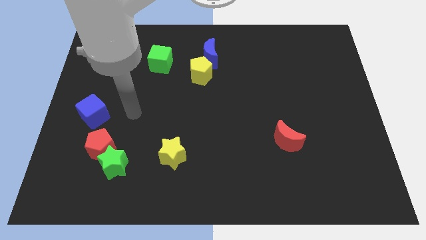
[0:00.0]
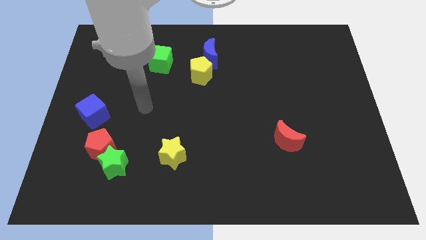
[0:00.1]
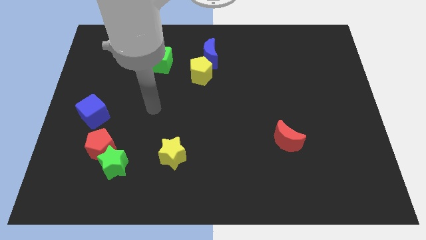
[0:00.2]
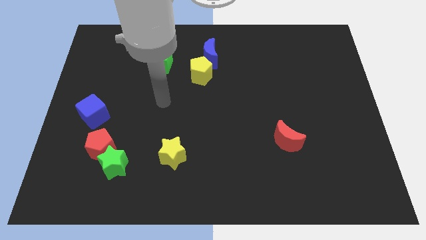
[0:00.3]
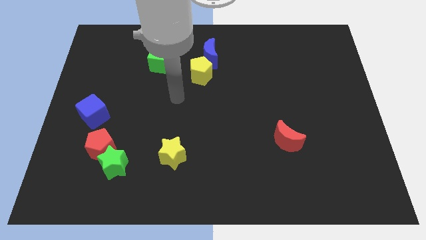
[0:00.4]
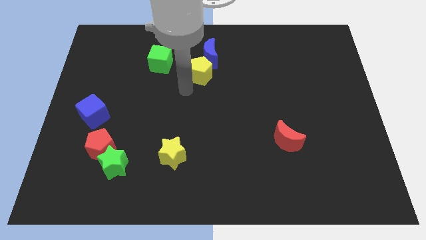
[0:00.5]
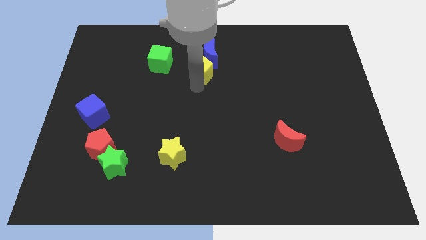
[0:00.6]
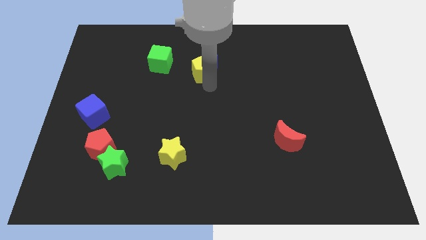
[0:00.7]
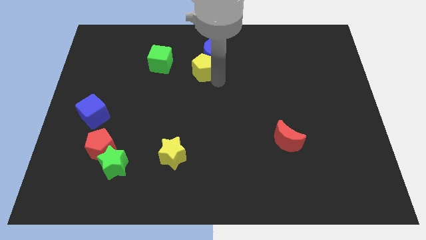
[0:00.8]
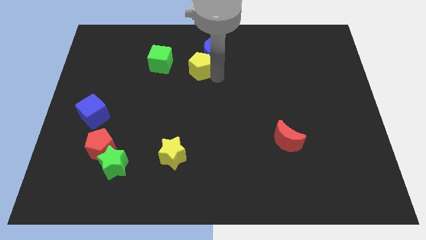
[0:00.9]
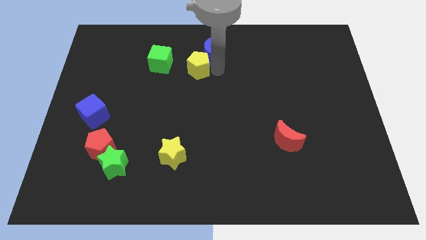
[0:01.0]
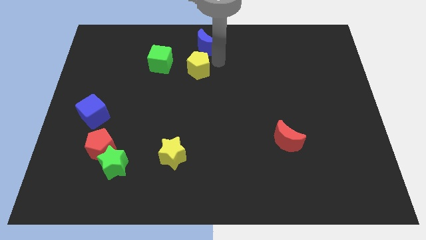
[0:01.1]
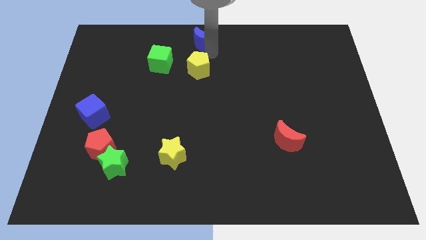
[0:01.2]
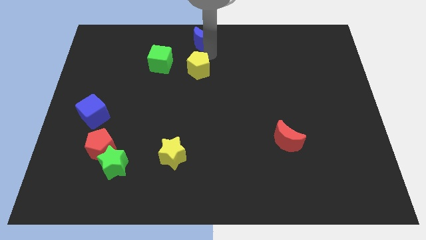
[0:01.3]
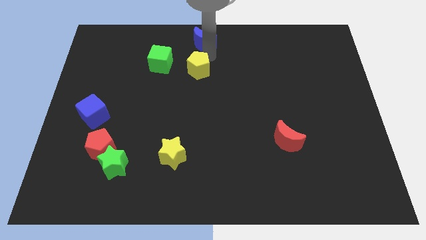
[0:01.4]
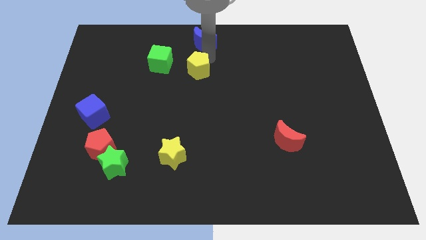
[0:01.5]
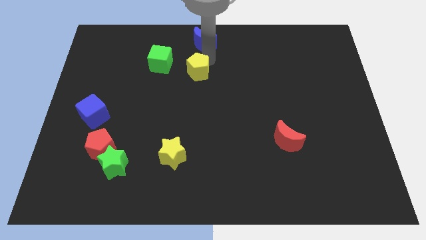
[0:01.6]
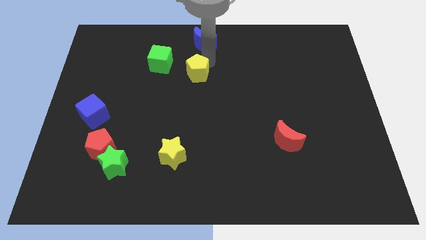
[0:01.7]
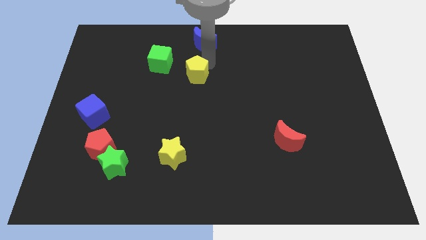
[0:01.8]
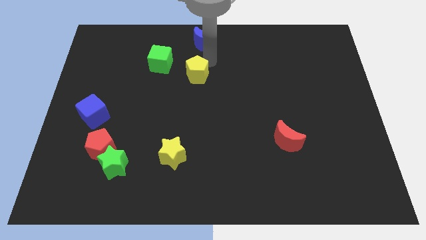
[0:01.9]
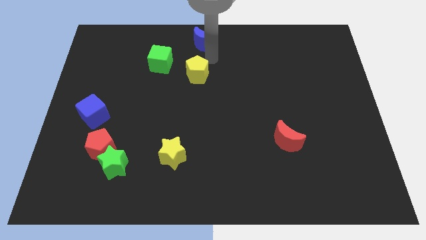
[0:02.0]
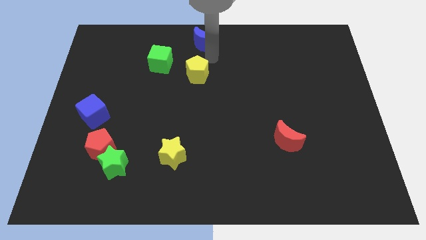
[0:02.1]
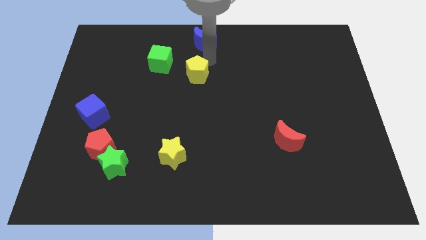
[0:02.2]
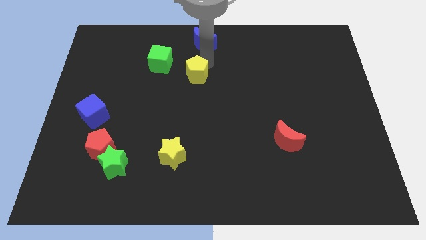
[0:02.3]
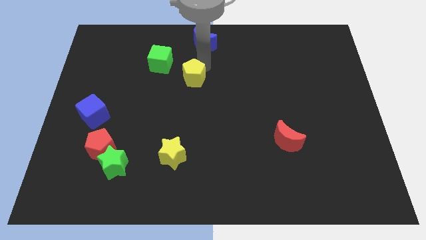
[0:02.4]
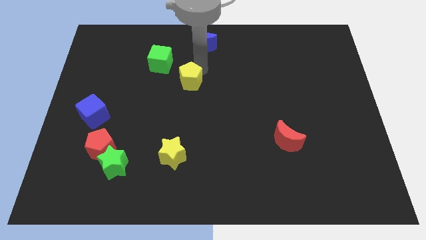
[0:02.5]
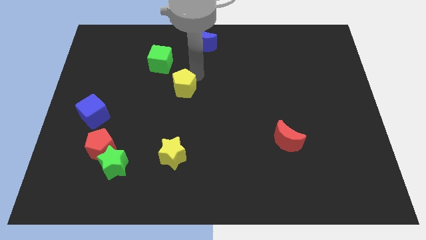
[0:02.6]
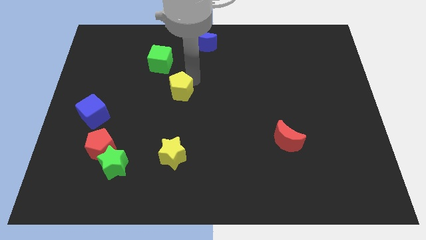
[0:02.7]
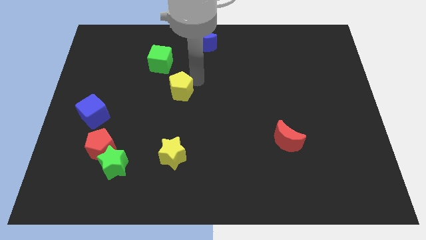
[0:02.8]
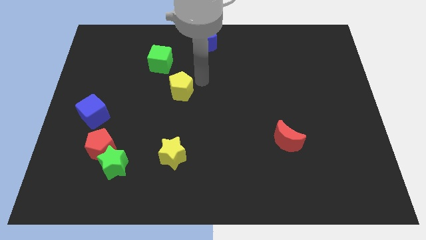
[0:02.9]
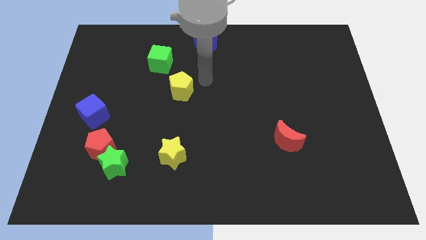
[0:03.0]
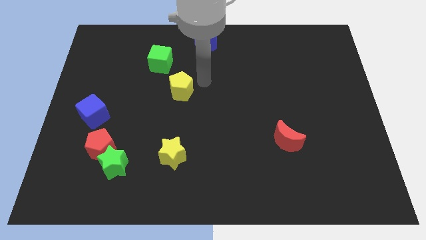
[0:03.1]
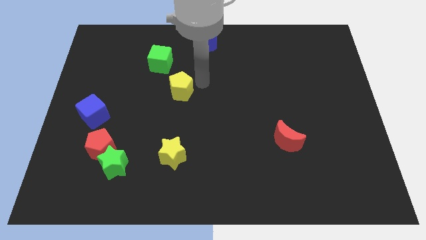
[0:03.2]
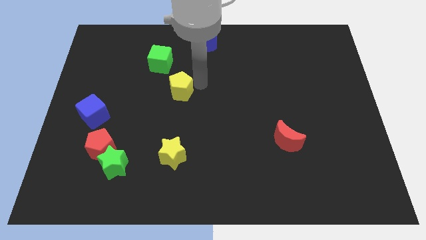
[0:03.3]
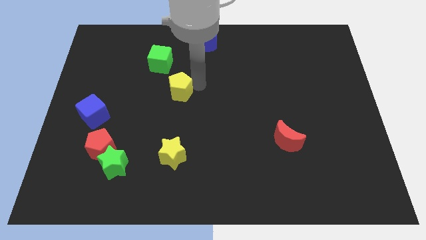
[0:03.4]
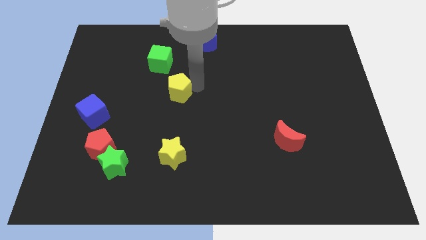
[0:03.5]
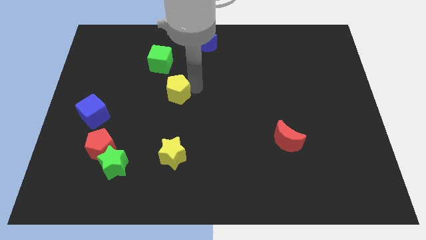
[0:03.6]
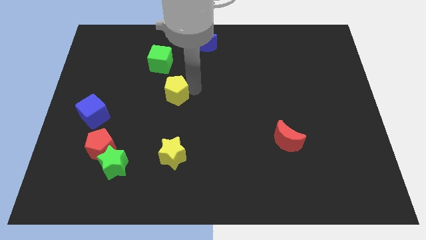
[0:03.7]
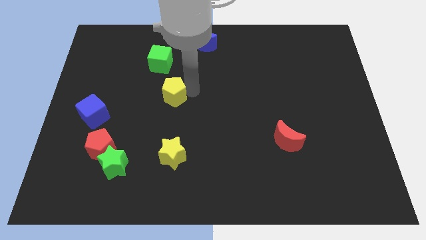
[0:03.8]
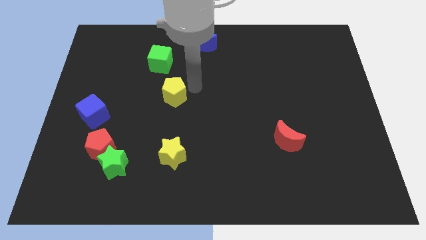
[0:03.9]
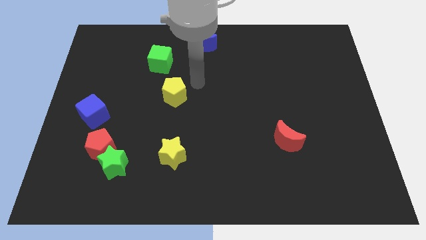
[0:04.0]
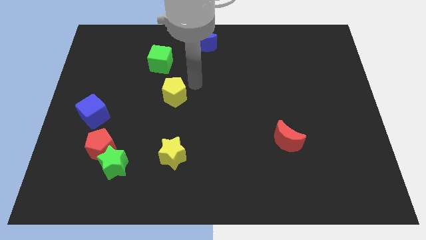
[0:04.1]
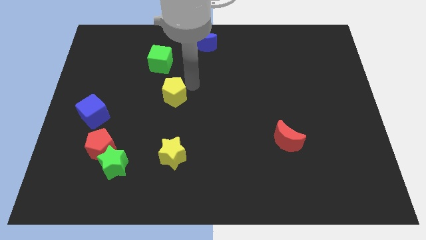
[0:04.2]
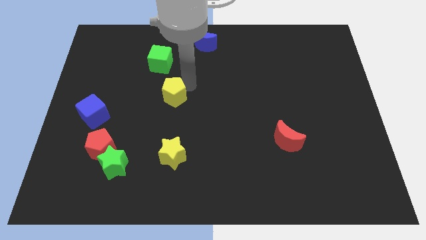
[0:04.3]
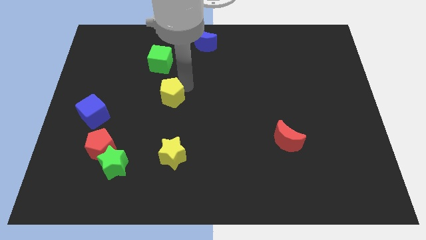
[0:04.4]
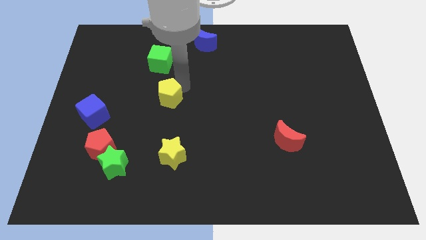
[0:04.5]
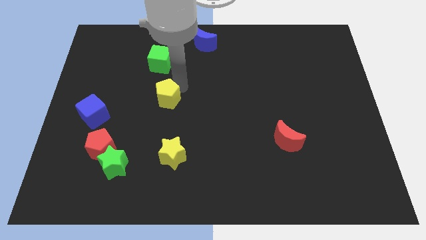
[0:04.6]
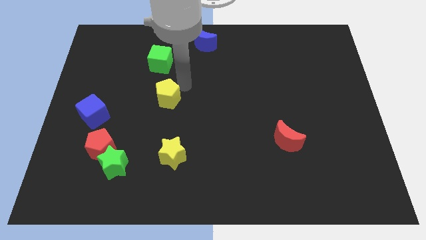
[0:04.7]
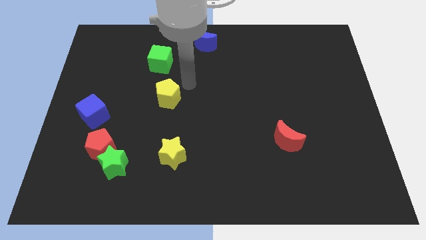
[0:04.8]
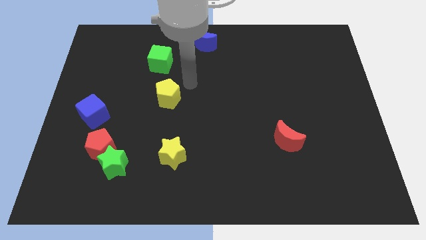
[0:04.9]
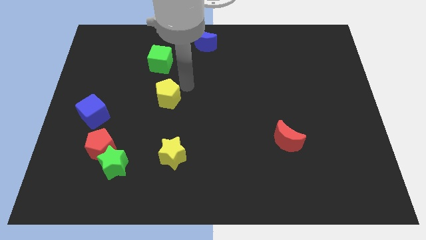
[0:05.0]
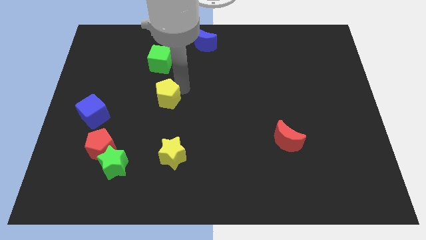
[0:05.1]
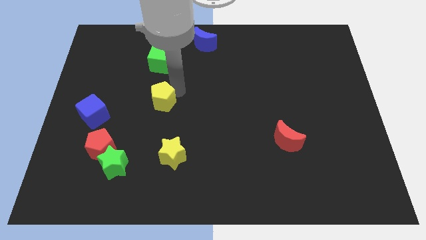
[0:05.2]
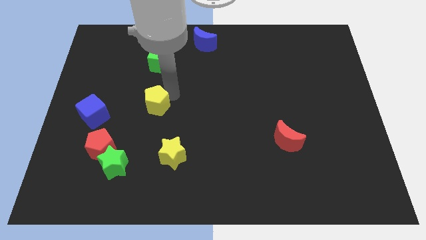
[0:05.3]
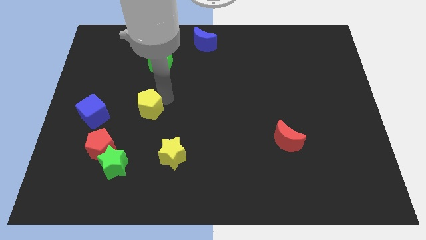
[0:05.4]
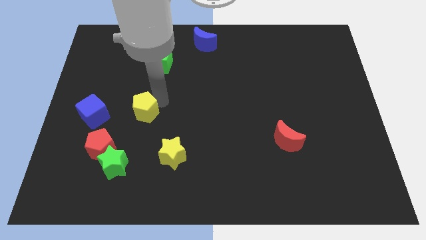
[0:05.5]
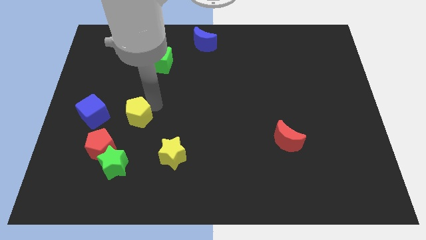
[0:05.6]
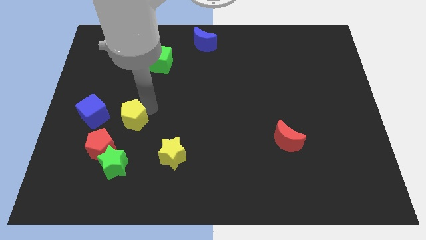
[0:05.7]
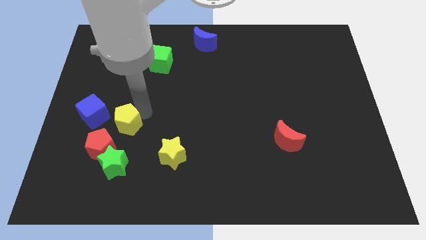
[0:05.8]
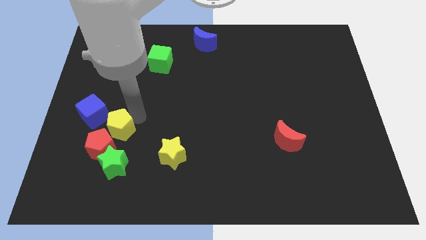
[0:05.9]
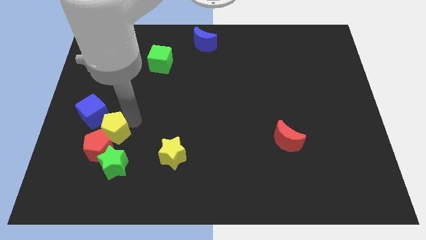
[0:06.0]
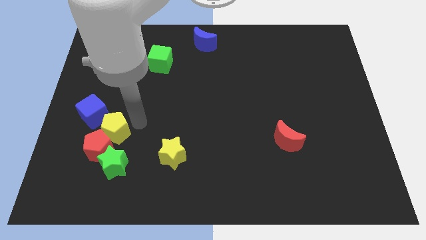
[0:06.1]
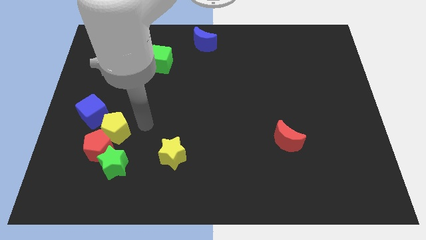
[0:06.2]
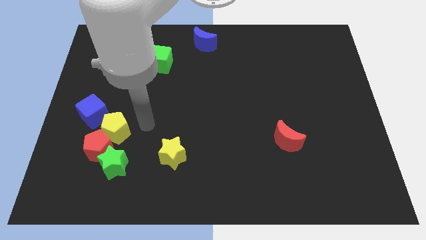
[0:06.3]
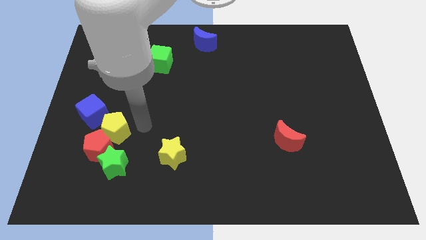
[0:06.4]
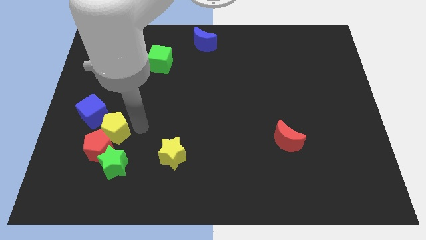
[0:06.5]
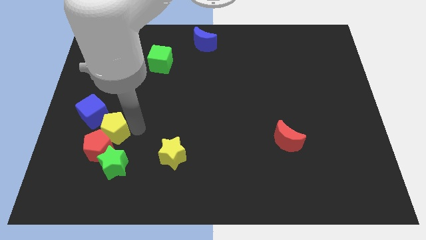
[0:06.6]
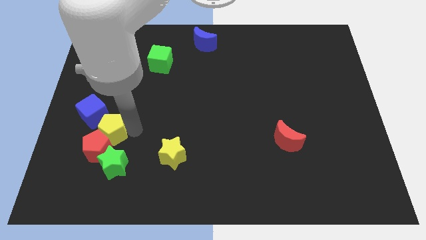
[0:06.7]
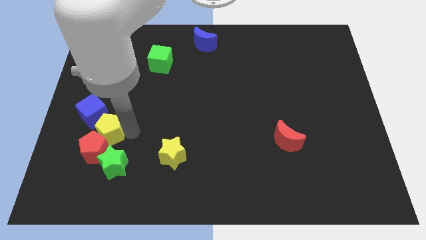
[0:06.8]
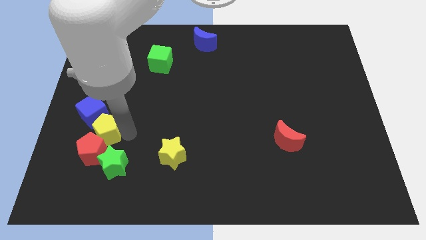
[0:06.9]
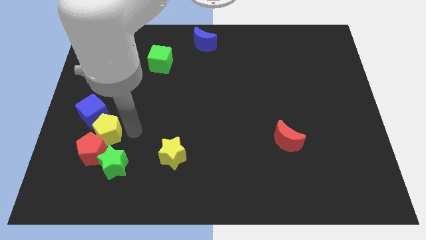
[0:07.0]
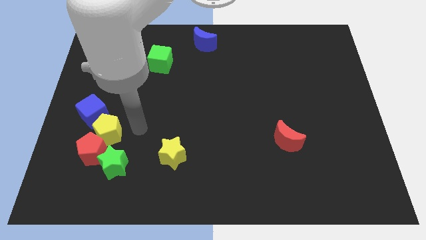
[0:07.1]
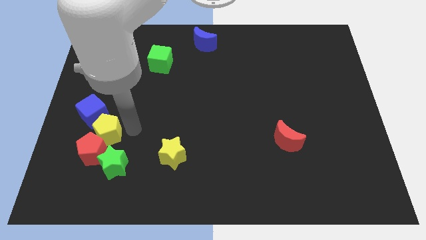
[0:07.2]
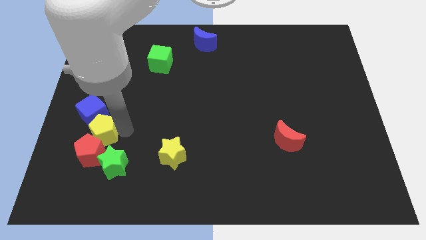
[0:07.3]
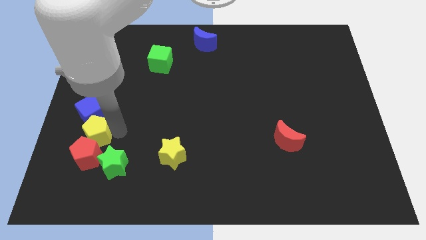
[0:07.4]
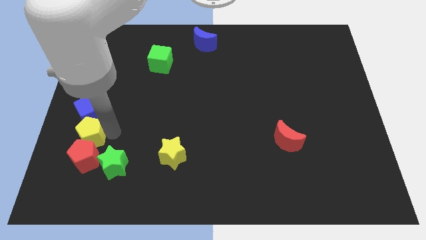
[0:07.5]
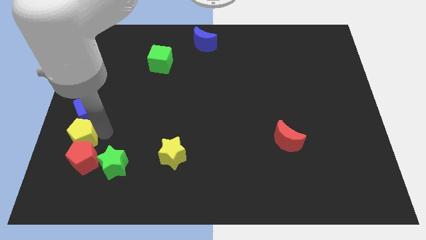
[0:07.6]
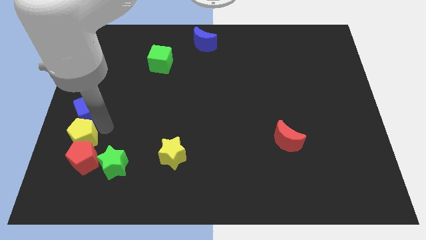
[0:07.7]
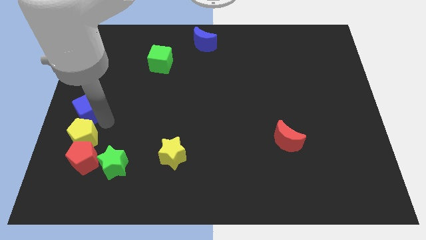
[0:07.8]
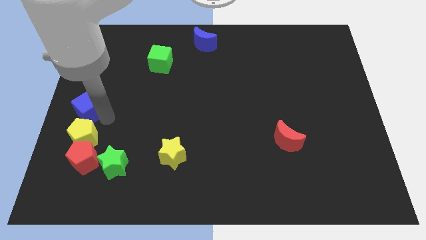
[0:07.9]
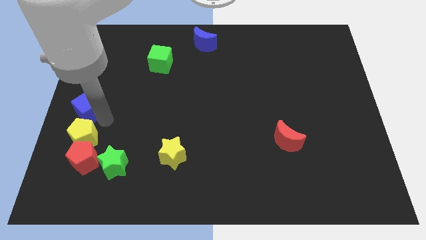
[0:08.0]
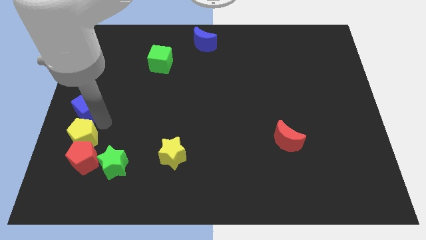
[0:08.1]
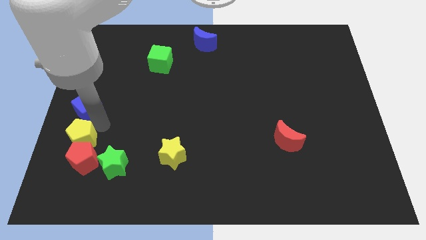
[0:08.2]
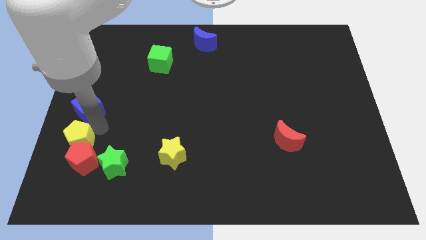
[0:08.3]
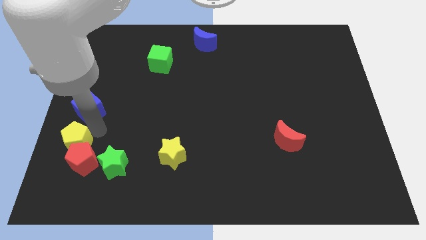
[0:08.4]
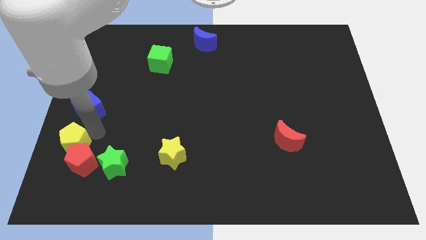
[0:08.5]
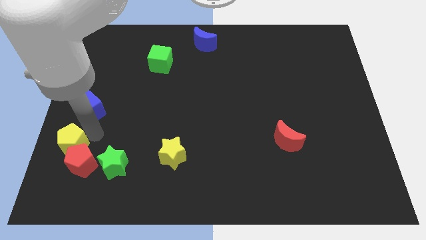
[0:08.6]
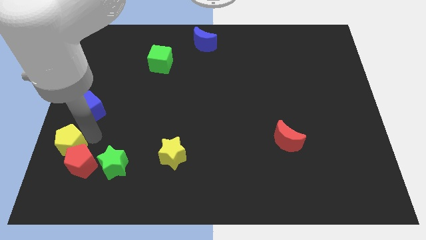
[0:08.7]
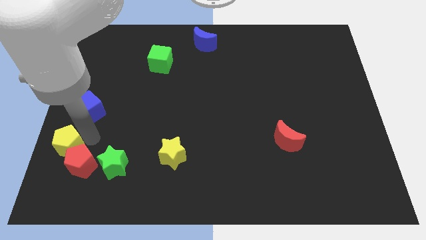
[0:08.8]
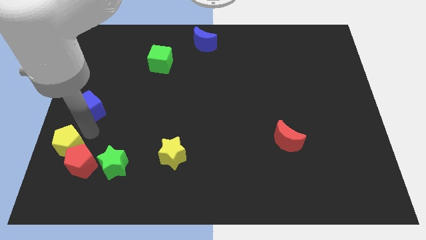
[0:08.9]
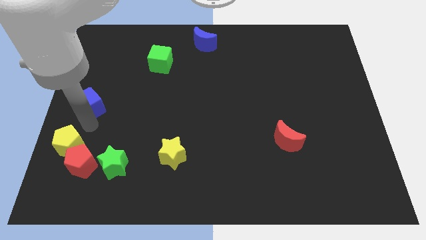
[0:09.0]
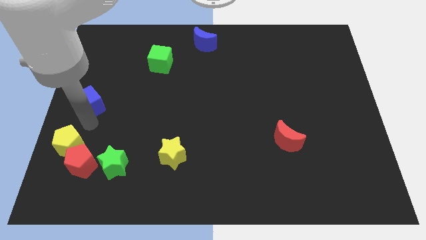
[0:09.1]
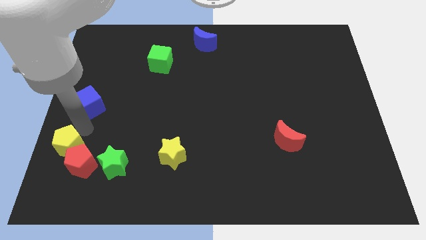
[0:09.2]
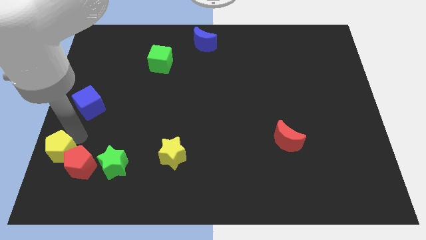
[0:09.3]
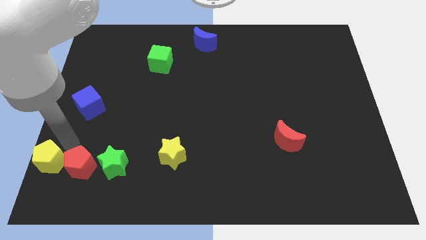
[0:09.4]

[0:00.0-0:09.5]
push the yellow pentagon to the bottom left of the board
